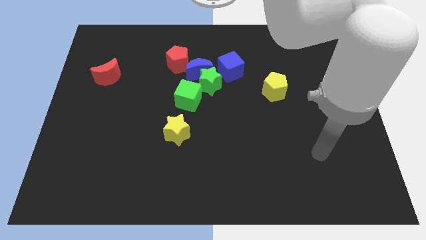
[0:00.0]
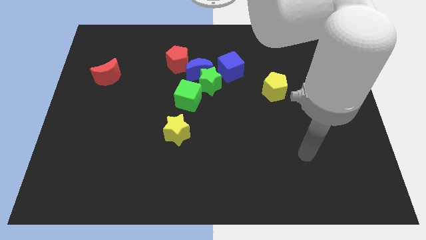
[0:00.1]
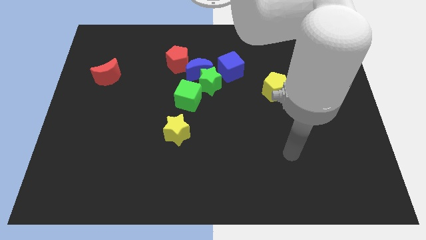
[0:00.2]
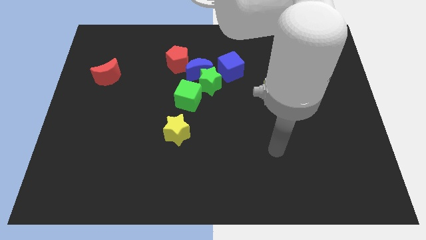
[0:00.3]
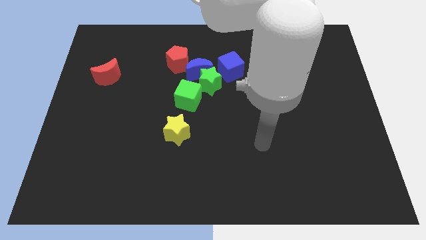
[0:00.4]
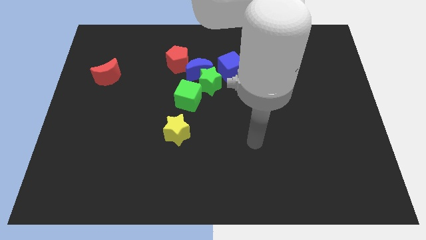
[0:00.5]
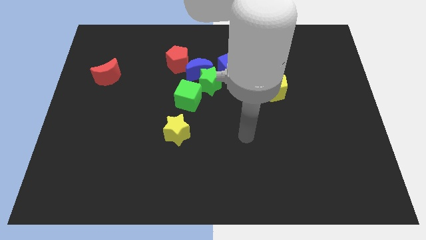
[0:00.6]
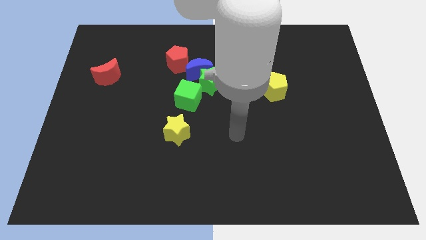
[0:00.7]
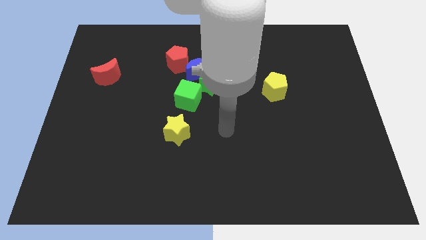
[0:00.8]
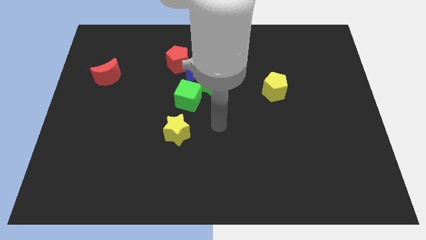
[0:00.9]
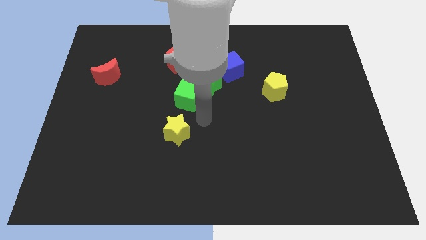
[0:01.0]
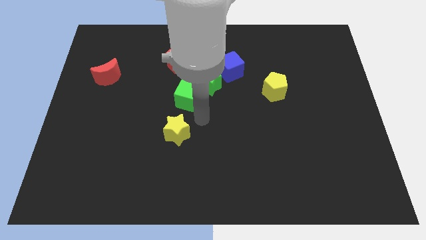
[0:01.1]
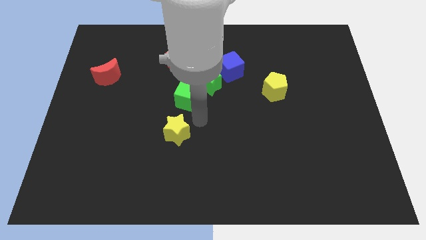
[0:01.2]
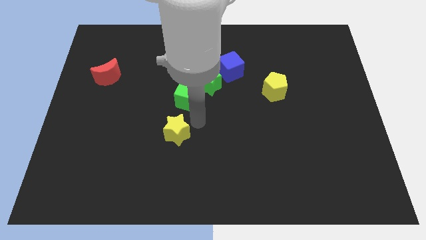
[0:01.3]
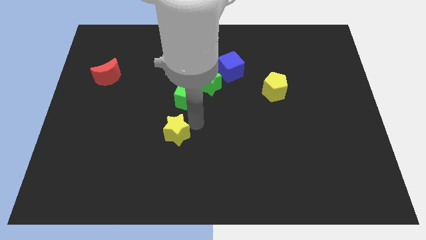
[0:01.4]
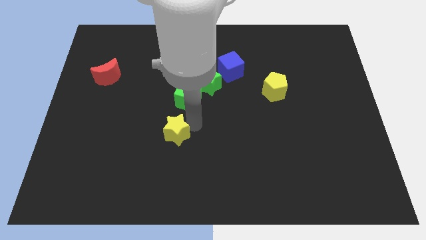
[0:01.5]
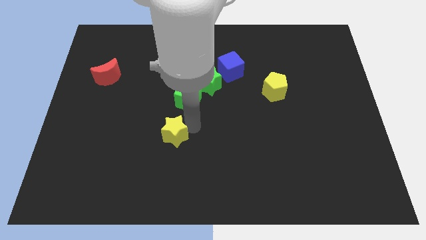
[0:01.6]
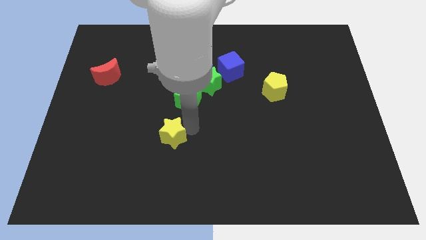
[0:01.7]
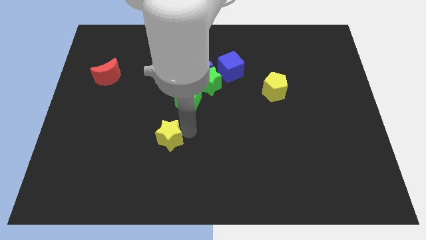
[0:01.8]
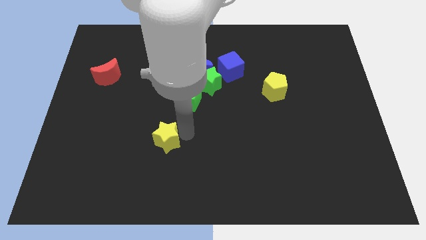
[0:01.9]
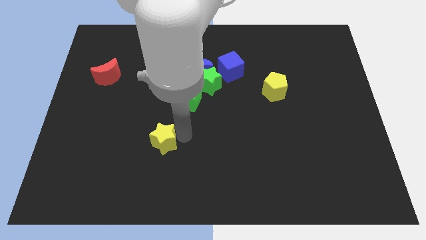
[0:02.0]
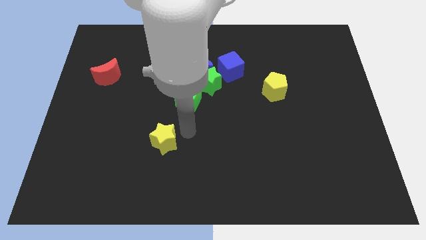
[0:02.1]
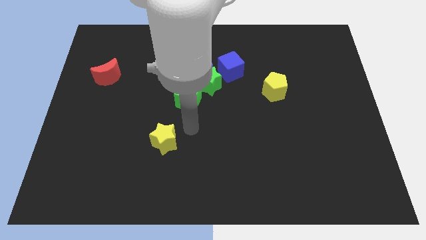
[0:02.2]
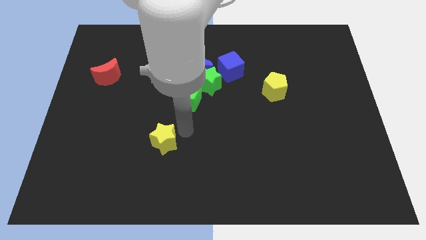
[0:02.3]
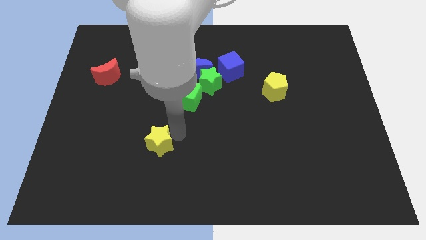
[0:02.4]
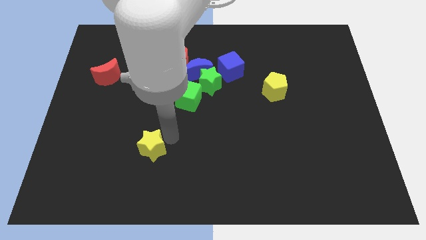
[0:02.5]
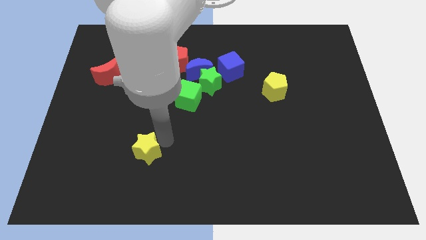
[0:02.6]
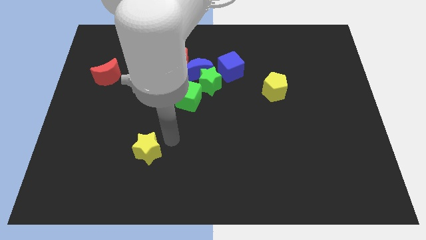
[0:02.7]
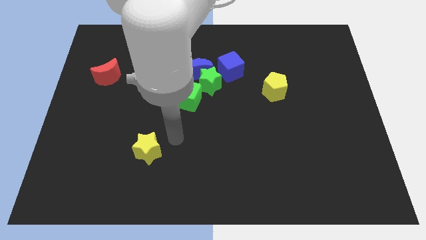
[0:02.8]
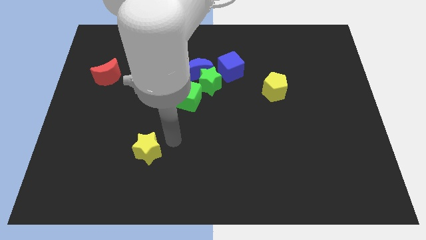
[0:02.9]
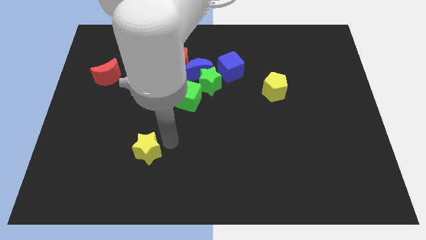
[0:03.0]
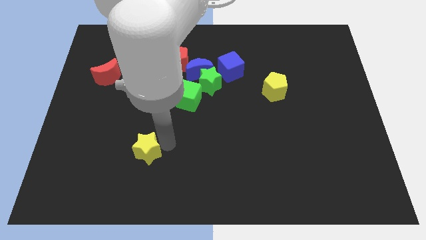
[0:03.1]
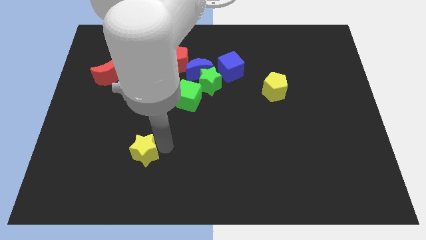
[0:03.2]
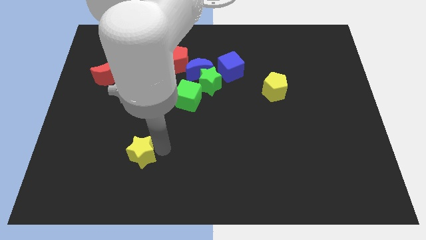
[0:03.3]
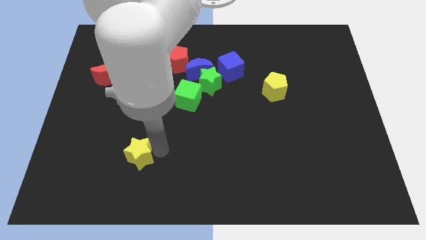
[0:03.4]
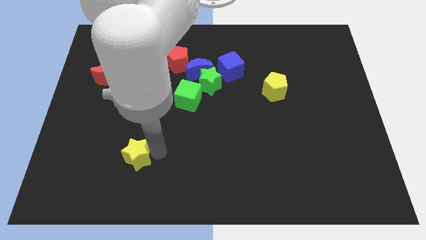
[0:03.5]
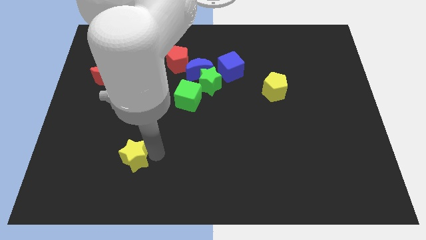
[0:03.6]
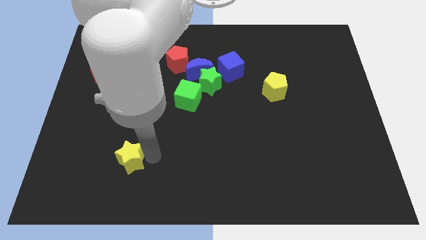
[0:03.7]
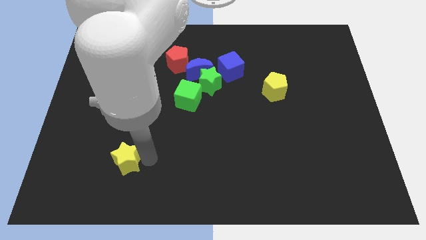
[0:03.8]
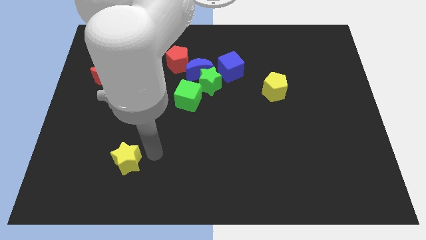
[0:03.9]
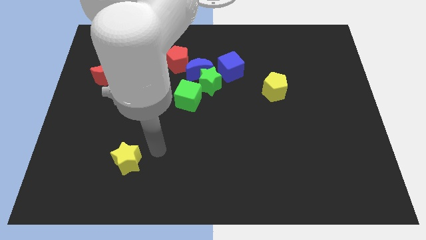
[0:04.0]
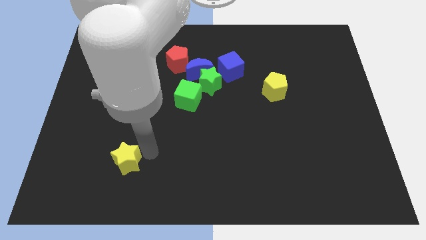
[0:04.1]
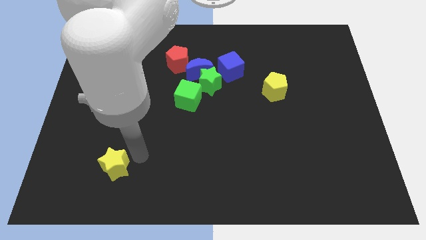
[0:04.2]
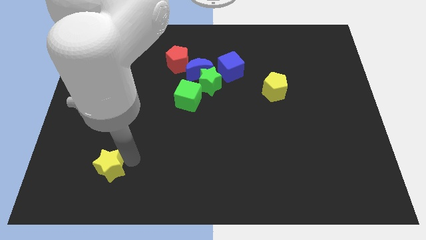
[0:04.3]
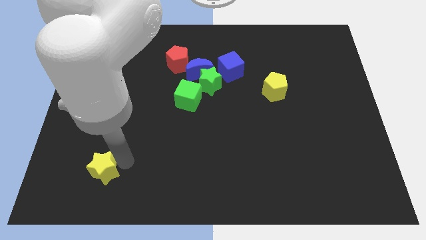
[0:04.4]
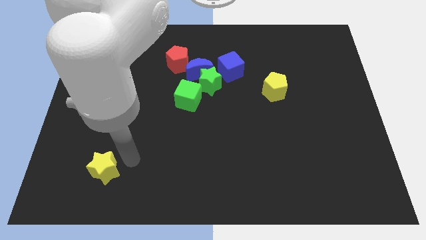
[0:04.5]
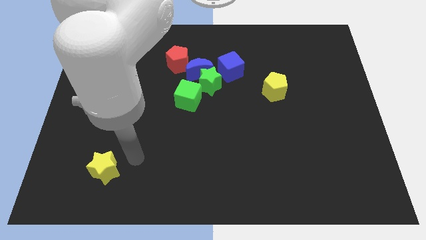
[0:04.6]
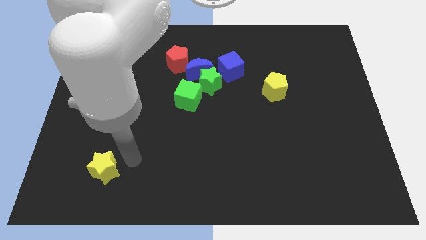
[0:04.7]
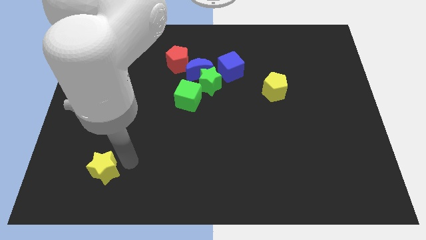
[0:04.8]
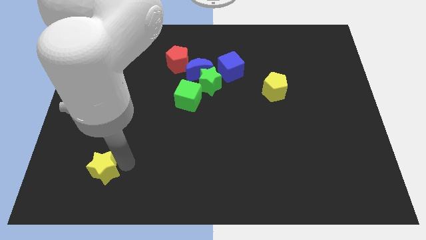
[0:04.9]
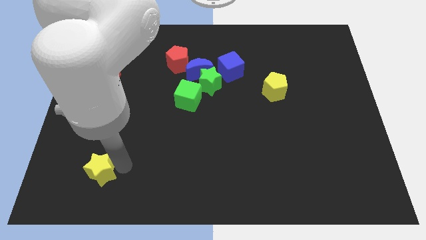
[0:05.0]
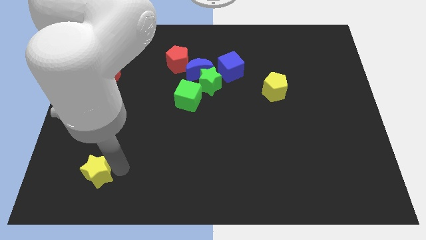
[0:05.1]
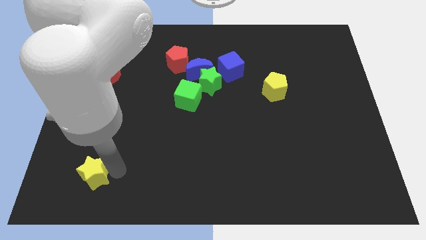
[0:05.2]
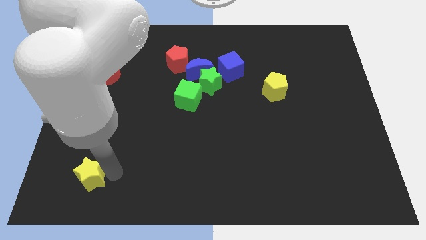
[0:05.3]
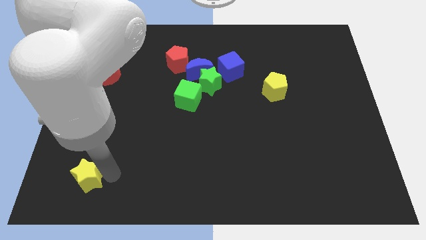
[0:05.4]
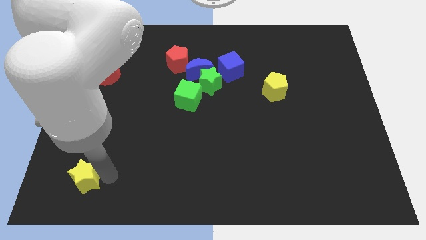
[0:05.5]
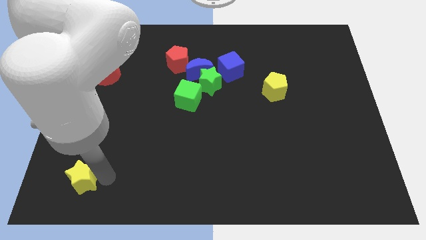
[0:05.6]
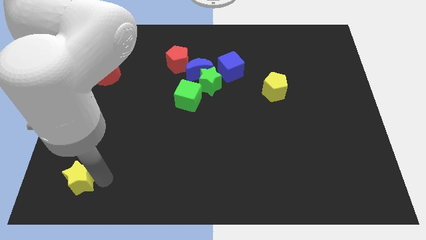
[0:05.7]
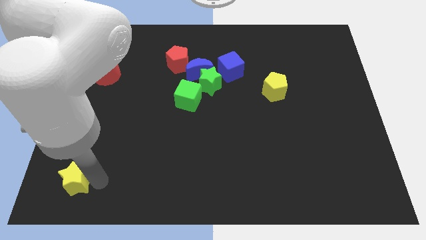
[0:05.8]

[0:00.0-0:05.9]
put the yellow star to the bottom left corner
